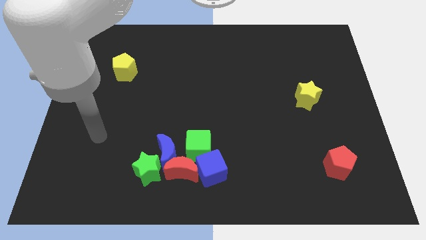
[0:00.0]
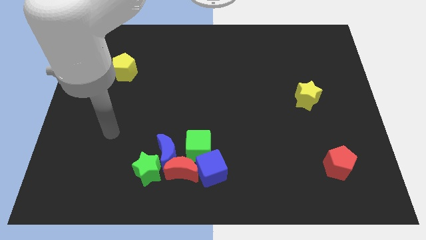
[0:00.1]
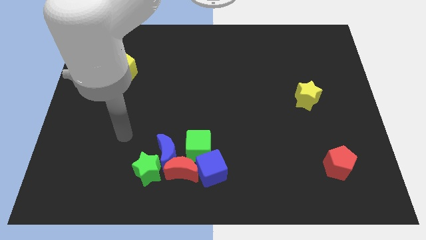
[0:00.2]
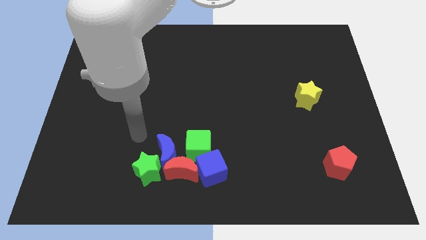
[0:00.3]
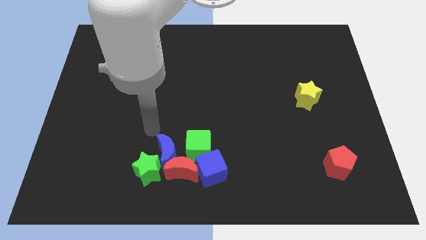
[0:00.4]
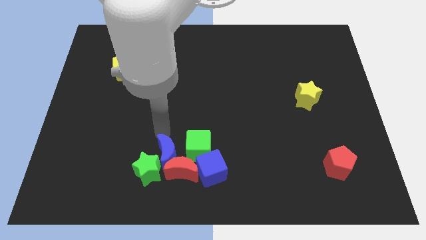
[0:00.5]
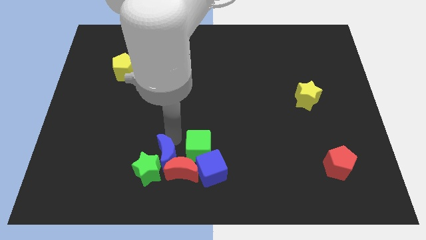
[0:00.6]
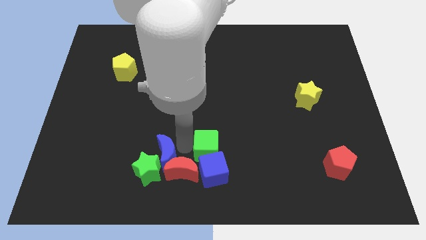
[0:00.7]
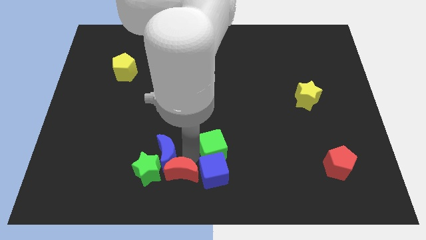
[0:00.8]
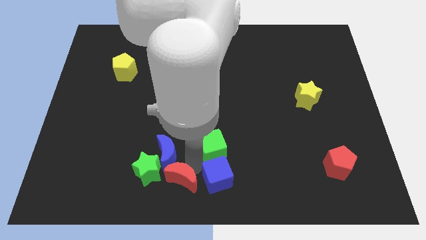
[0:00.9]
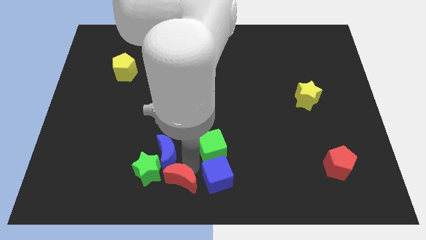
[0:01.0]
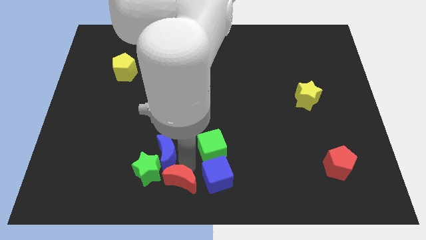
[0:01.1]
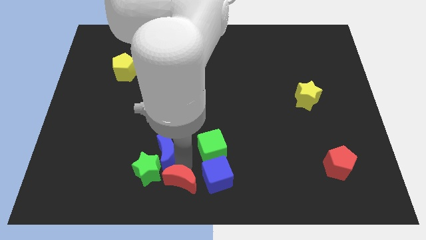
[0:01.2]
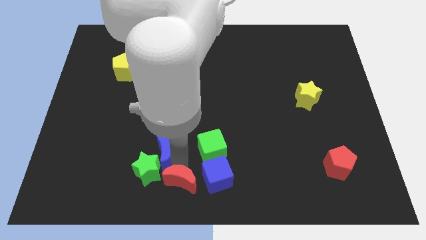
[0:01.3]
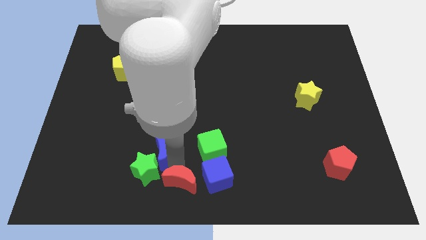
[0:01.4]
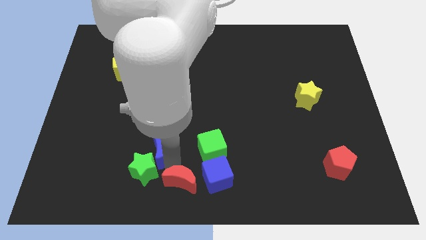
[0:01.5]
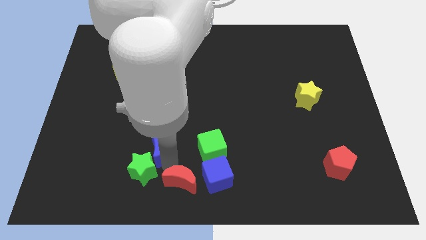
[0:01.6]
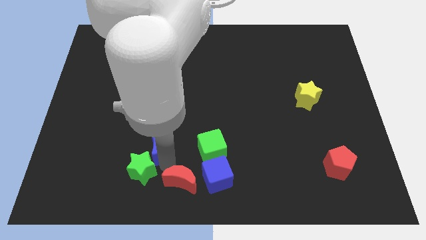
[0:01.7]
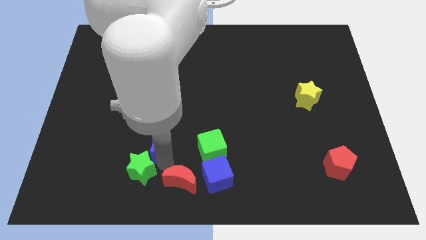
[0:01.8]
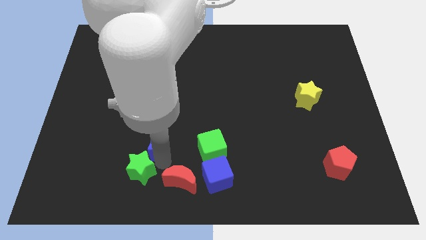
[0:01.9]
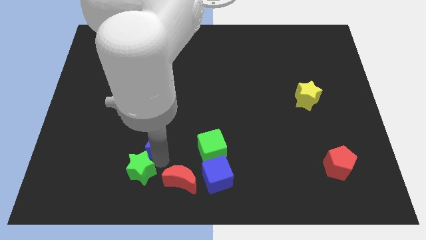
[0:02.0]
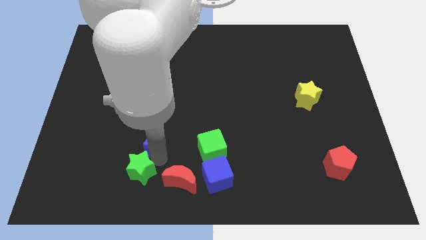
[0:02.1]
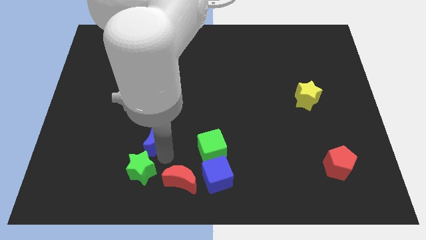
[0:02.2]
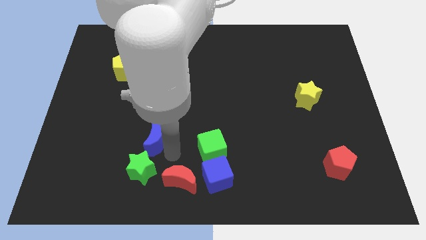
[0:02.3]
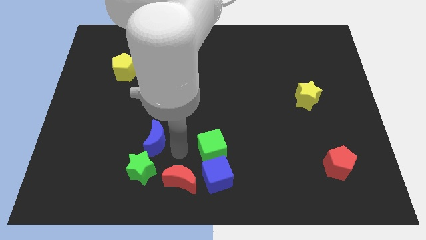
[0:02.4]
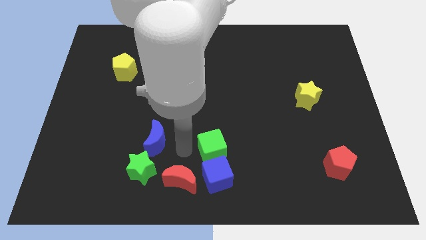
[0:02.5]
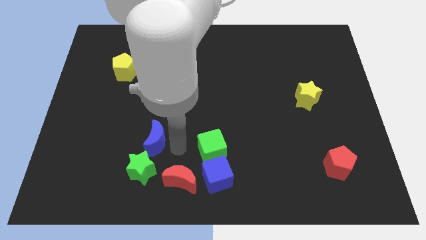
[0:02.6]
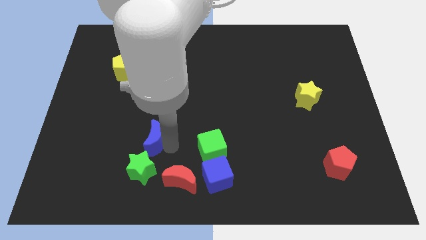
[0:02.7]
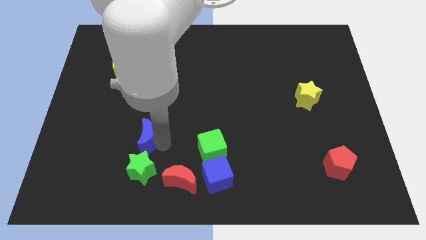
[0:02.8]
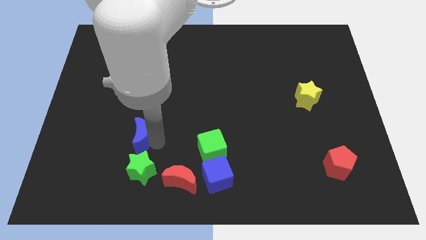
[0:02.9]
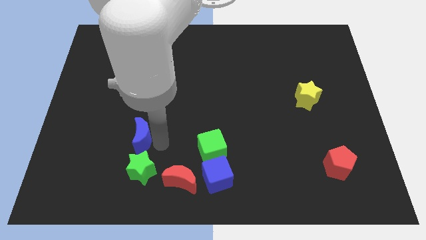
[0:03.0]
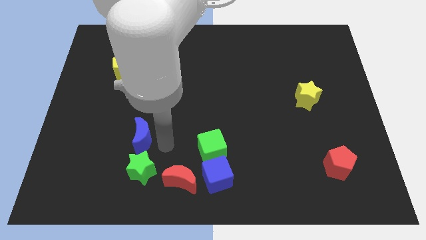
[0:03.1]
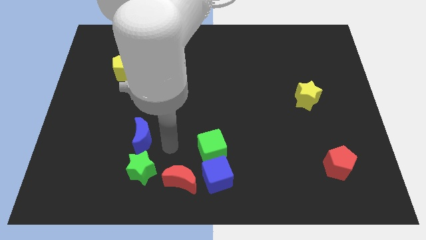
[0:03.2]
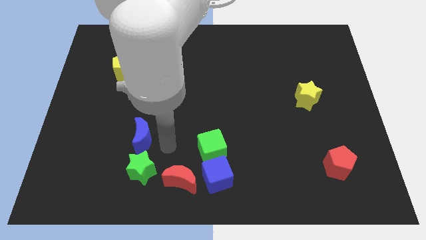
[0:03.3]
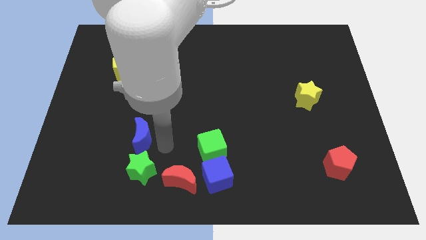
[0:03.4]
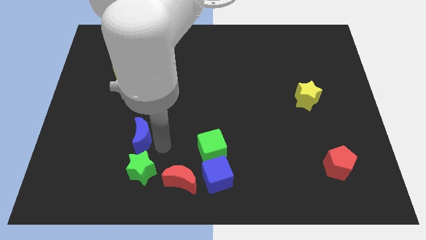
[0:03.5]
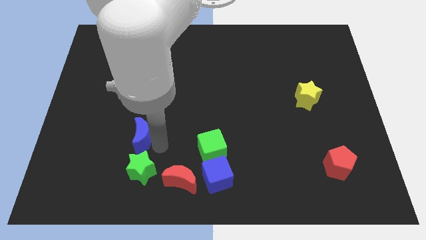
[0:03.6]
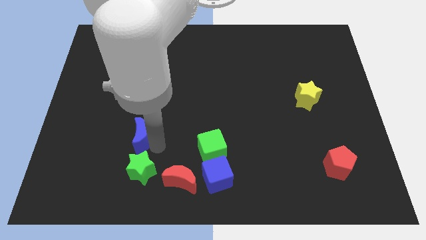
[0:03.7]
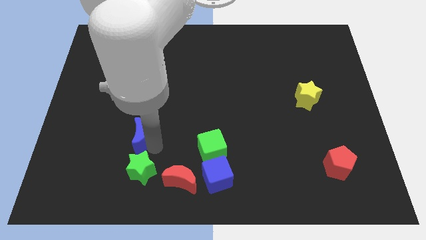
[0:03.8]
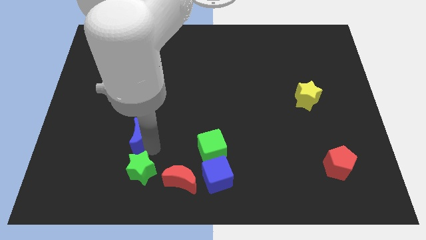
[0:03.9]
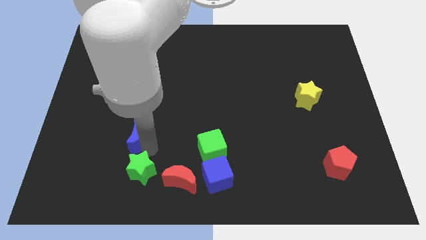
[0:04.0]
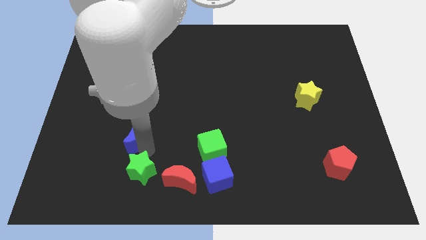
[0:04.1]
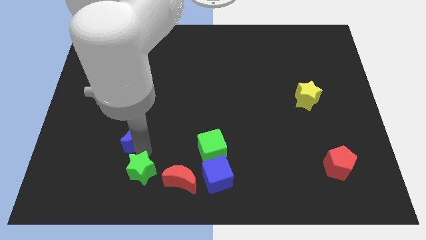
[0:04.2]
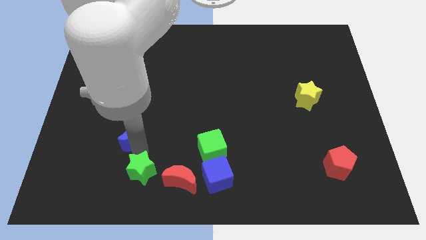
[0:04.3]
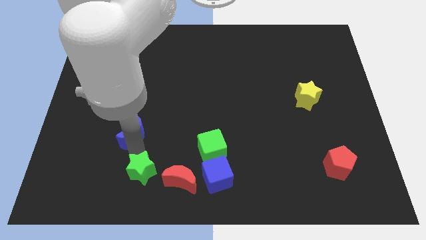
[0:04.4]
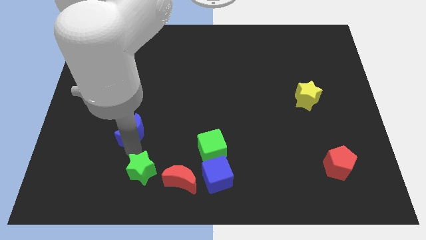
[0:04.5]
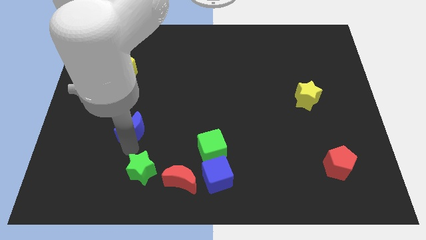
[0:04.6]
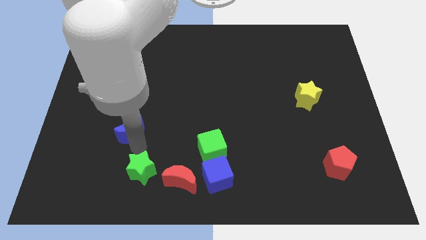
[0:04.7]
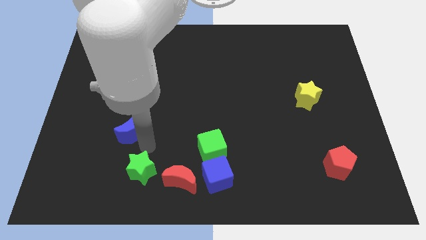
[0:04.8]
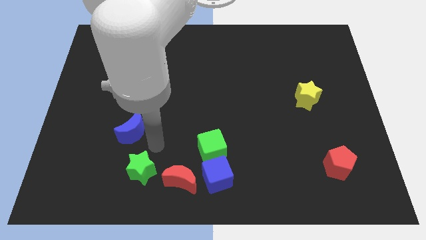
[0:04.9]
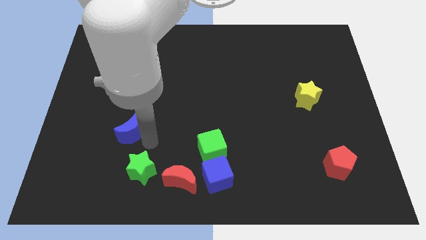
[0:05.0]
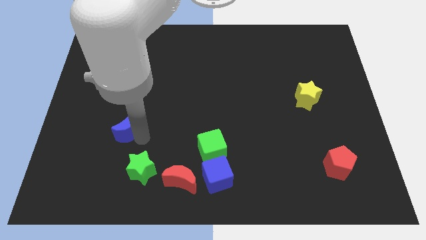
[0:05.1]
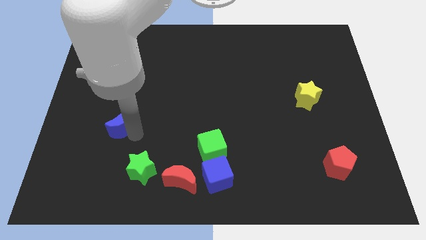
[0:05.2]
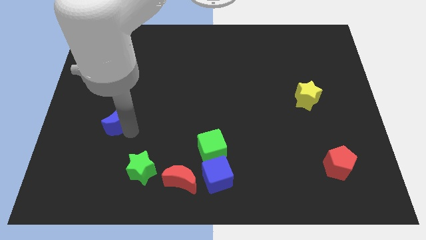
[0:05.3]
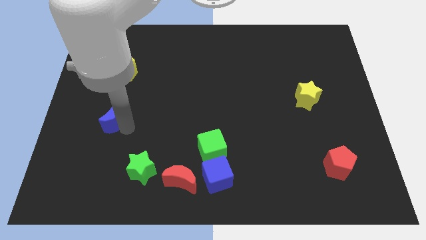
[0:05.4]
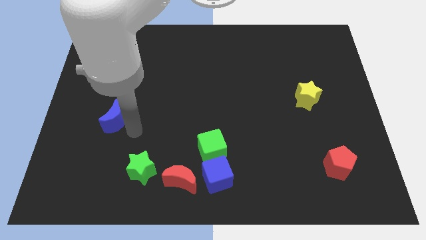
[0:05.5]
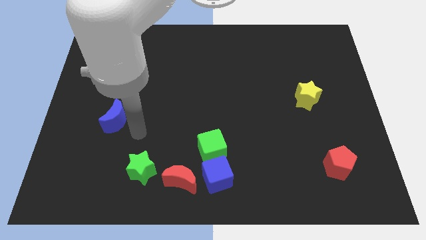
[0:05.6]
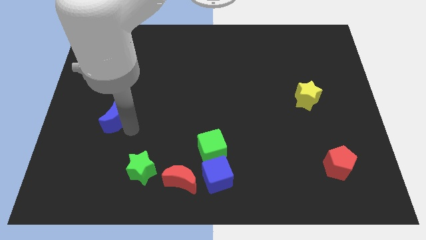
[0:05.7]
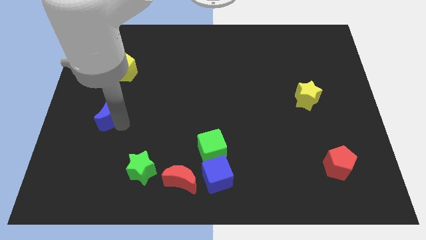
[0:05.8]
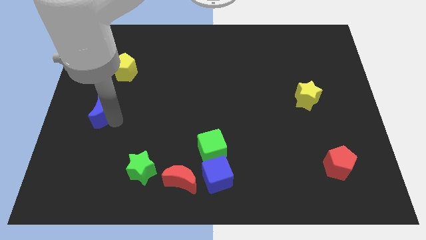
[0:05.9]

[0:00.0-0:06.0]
move the blue moon to the center left

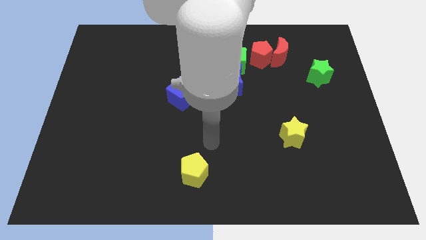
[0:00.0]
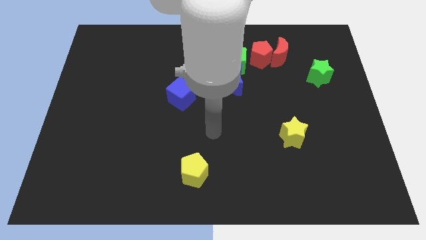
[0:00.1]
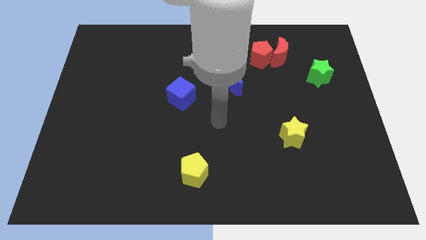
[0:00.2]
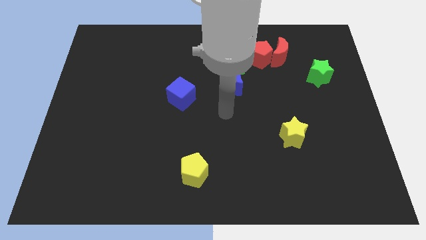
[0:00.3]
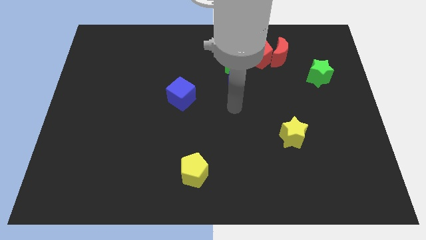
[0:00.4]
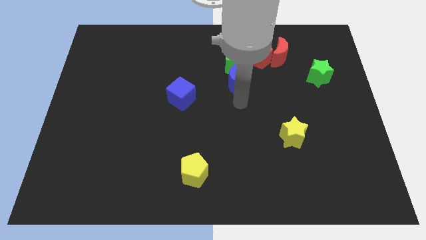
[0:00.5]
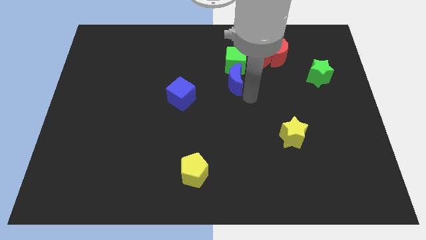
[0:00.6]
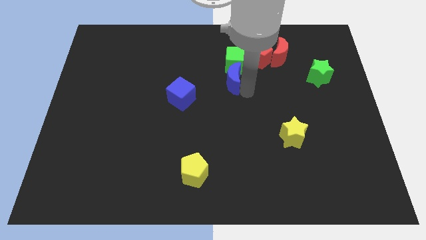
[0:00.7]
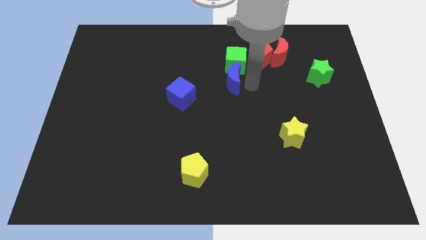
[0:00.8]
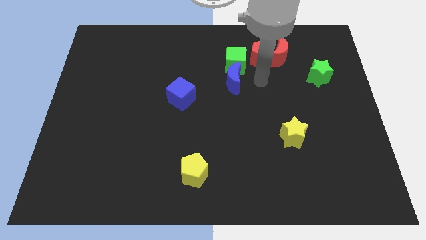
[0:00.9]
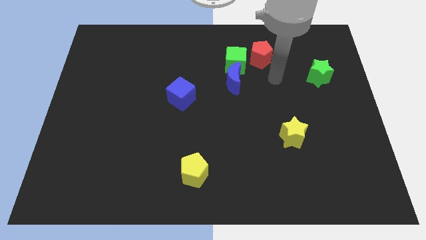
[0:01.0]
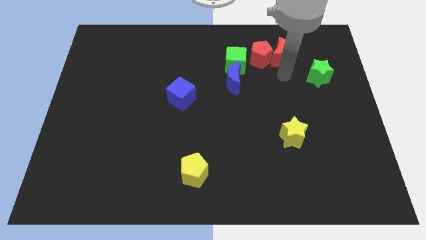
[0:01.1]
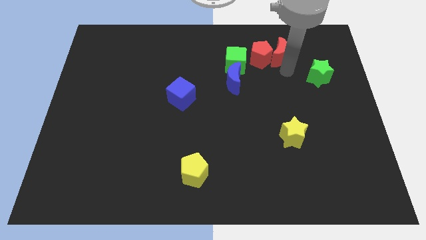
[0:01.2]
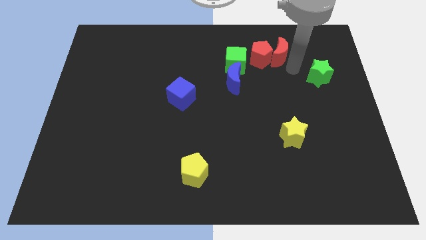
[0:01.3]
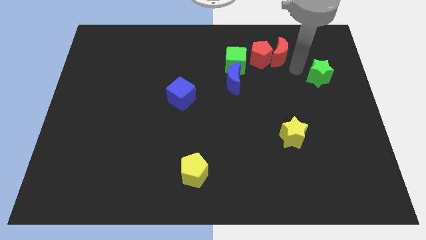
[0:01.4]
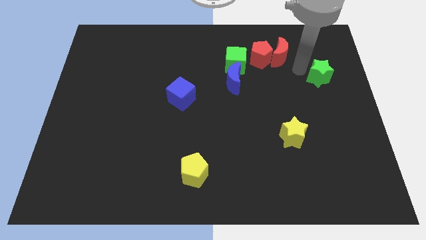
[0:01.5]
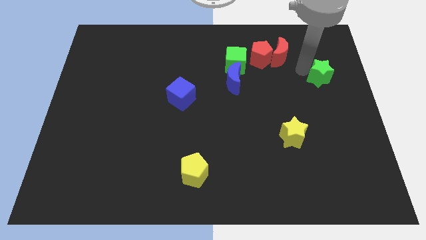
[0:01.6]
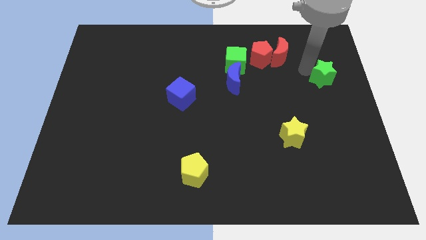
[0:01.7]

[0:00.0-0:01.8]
move the green star to the center right
